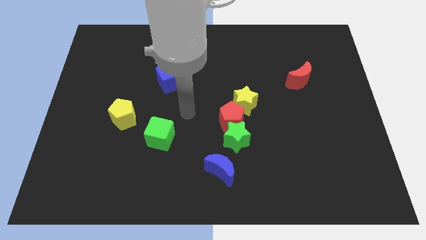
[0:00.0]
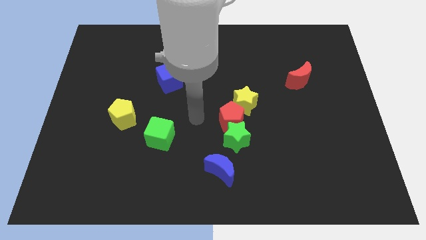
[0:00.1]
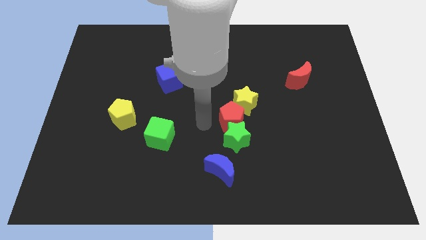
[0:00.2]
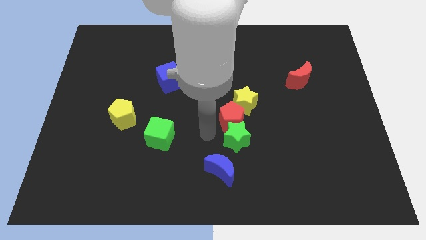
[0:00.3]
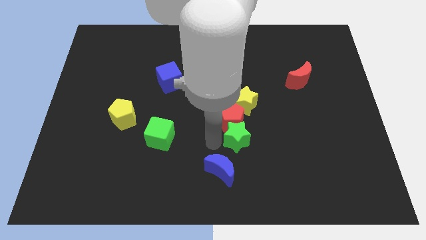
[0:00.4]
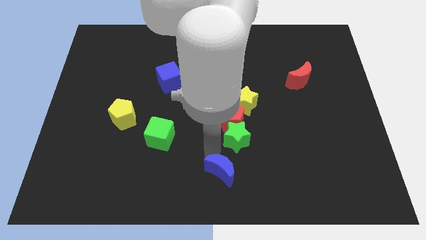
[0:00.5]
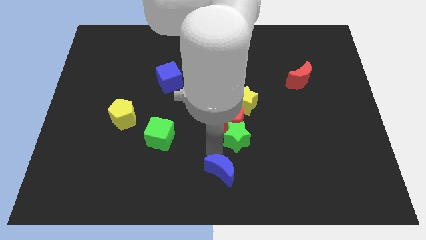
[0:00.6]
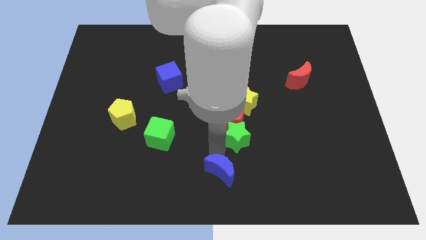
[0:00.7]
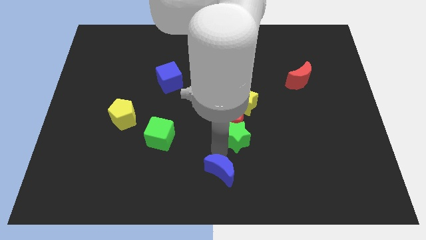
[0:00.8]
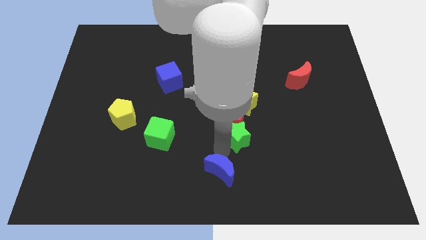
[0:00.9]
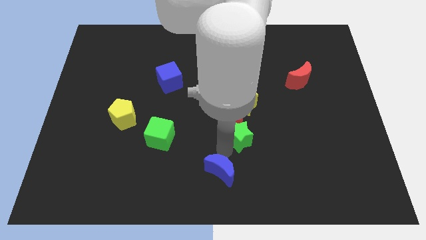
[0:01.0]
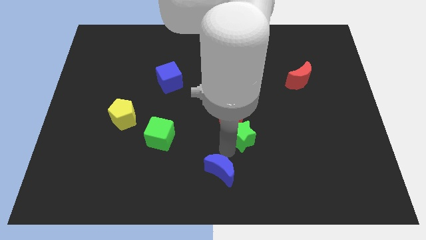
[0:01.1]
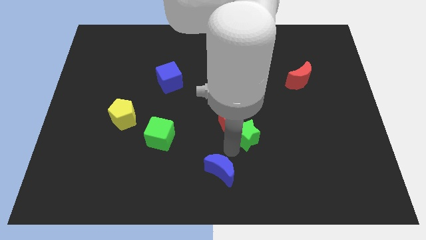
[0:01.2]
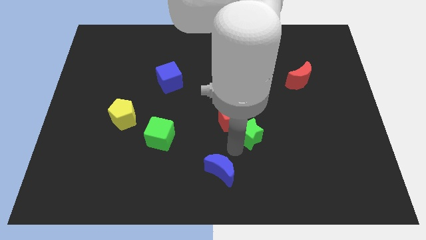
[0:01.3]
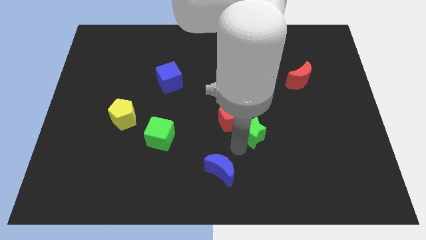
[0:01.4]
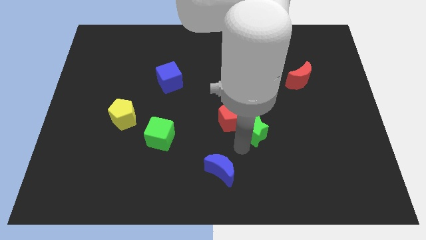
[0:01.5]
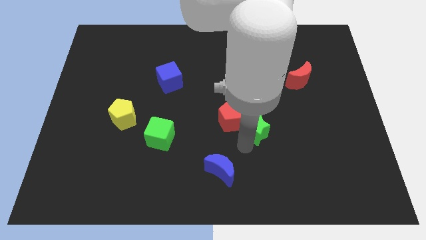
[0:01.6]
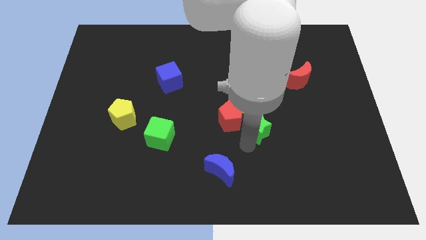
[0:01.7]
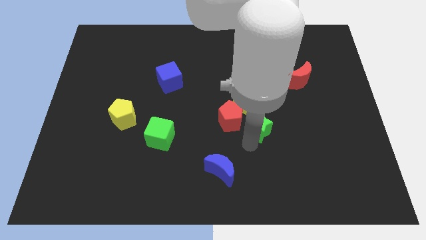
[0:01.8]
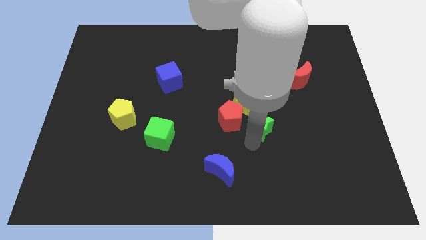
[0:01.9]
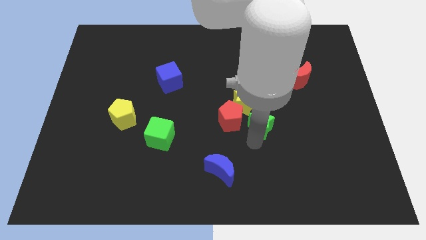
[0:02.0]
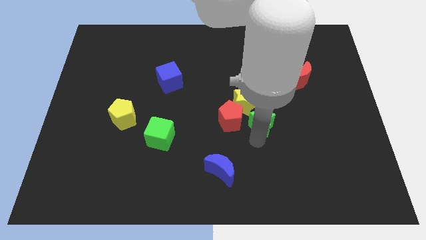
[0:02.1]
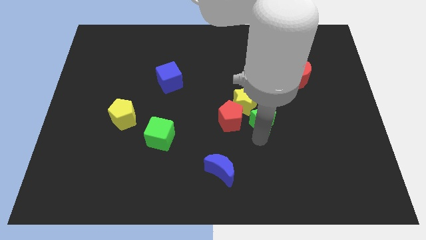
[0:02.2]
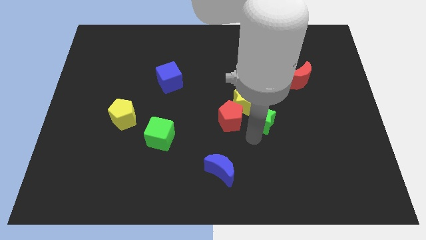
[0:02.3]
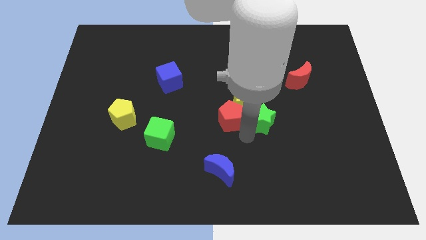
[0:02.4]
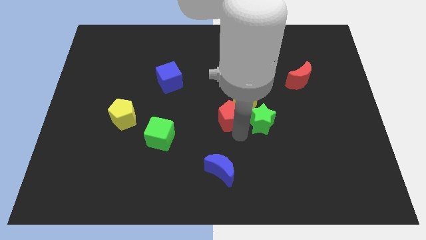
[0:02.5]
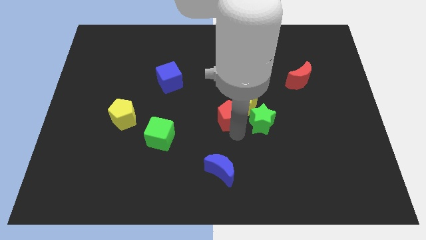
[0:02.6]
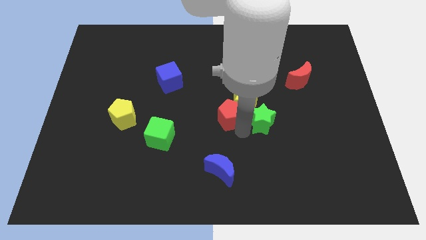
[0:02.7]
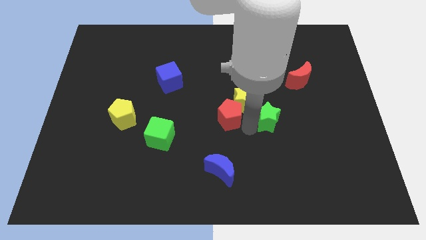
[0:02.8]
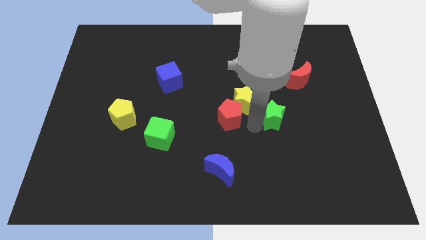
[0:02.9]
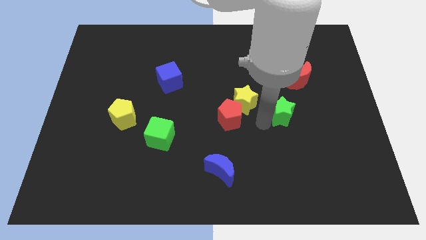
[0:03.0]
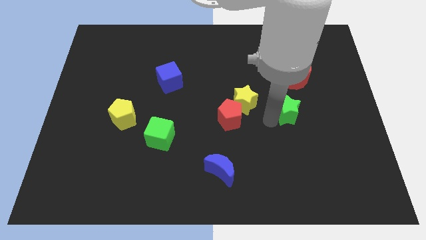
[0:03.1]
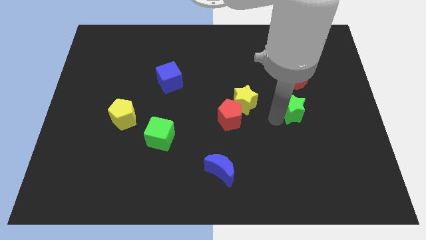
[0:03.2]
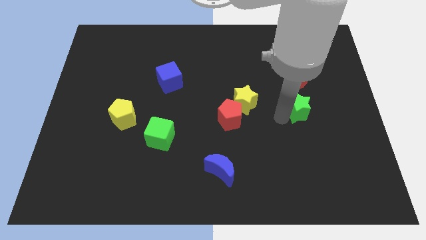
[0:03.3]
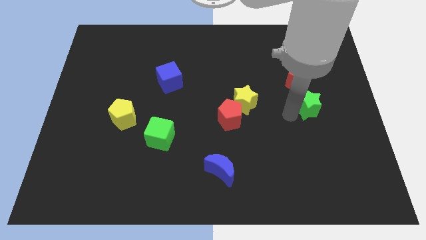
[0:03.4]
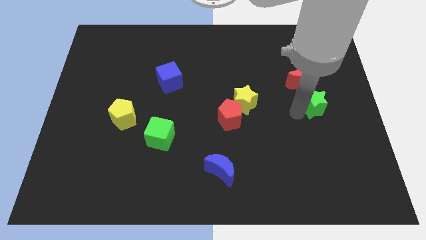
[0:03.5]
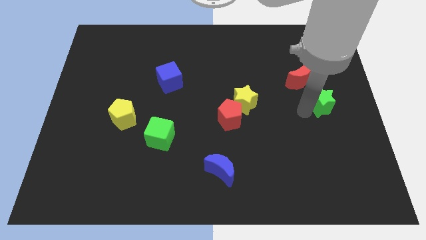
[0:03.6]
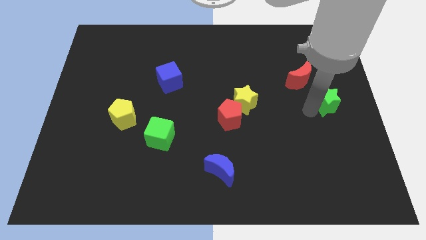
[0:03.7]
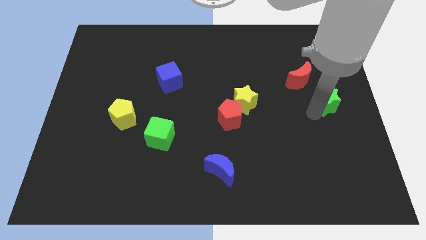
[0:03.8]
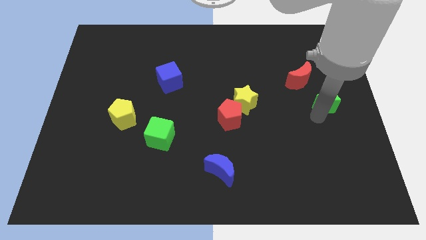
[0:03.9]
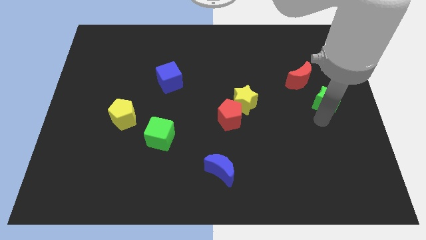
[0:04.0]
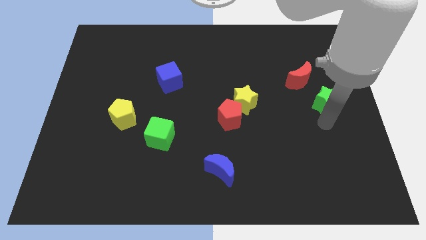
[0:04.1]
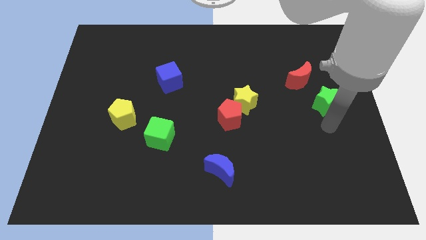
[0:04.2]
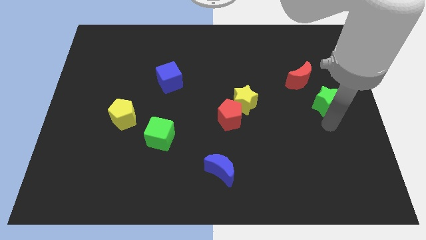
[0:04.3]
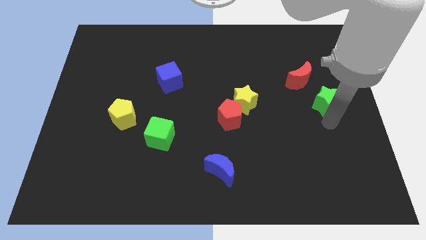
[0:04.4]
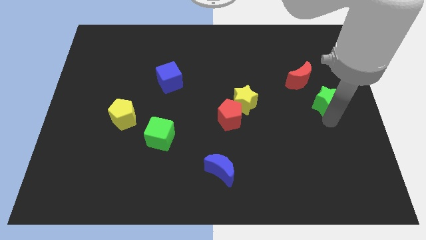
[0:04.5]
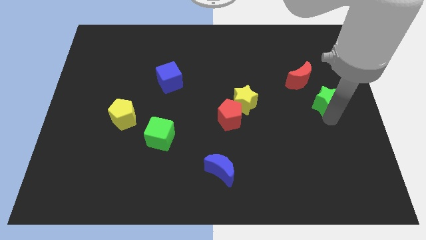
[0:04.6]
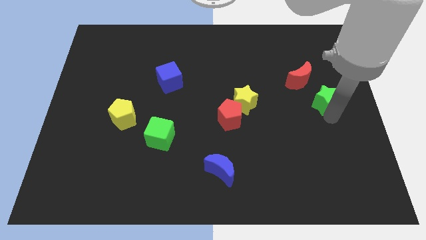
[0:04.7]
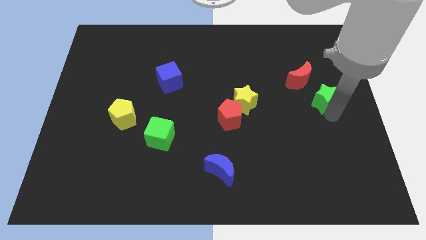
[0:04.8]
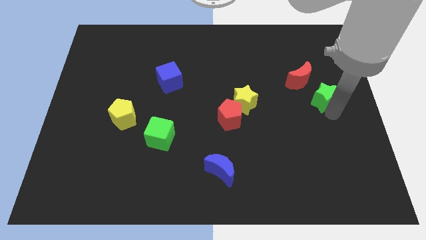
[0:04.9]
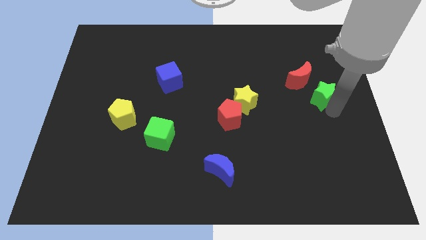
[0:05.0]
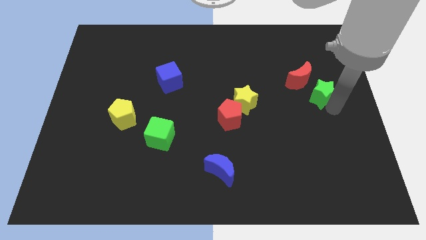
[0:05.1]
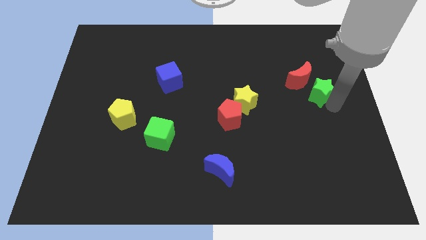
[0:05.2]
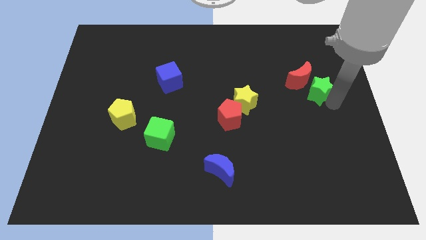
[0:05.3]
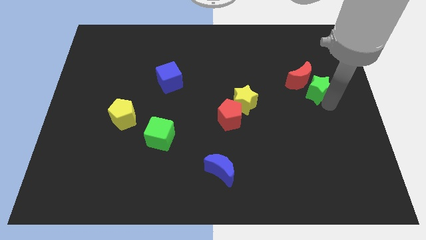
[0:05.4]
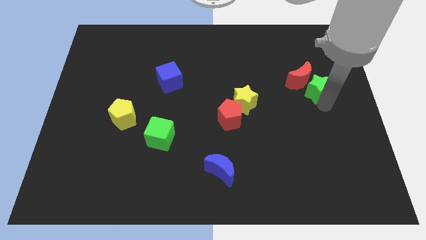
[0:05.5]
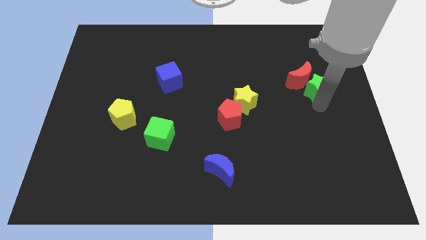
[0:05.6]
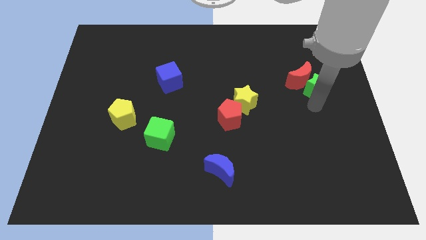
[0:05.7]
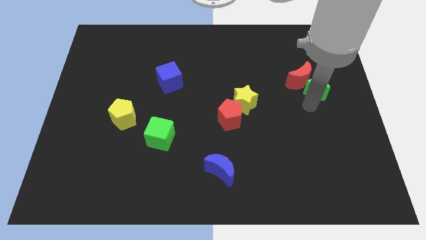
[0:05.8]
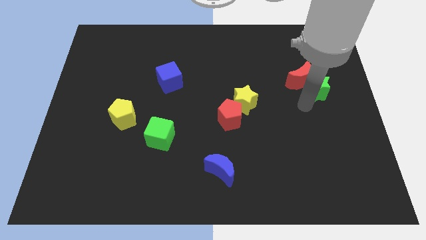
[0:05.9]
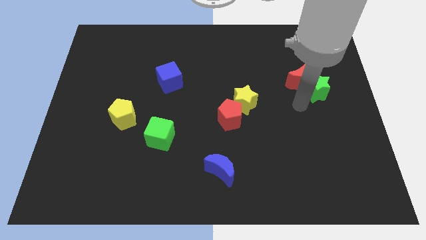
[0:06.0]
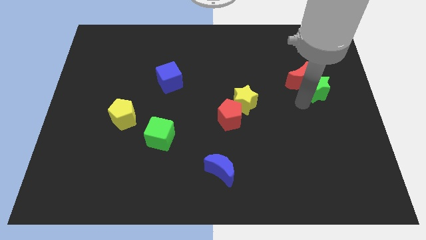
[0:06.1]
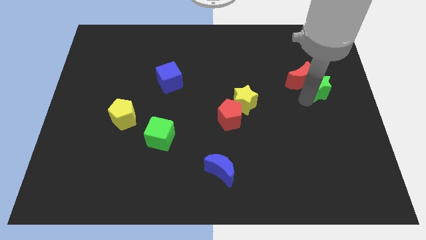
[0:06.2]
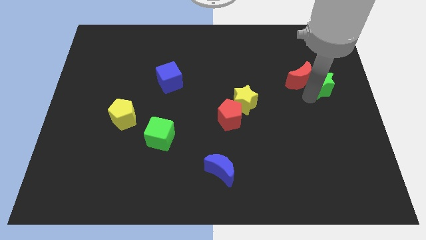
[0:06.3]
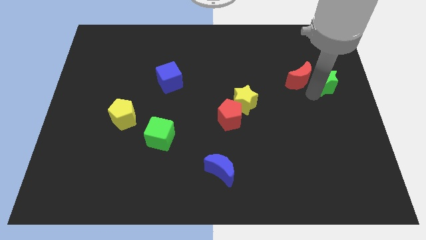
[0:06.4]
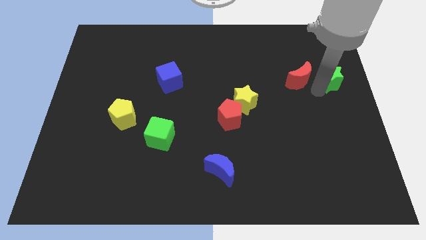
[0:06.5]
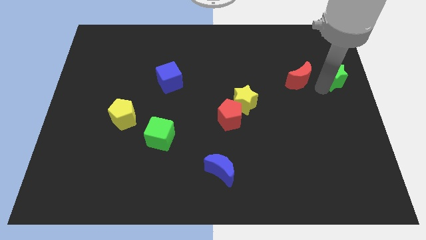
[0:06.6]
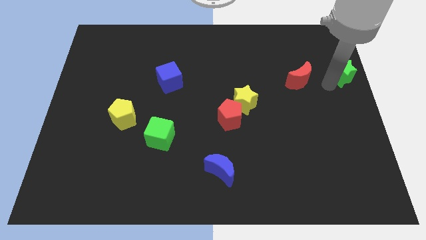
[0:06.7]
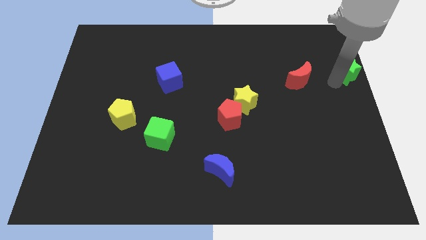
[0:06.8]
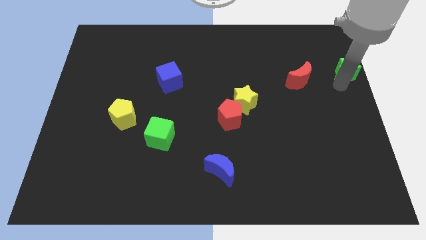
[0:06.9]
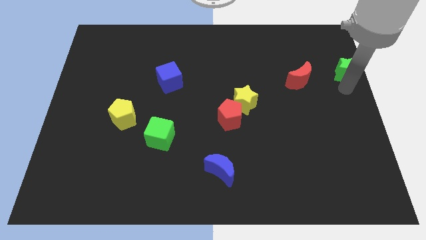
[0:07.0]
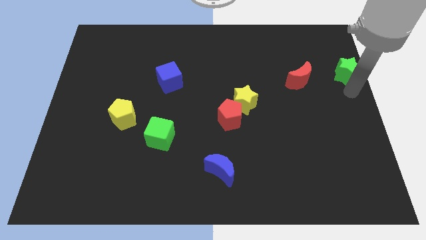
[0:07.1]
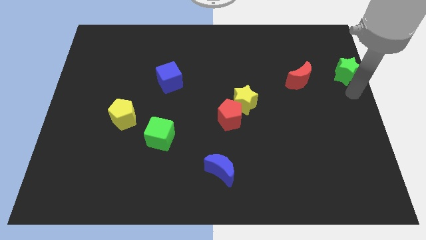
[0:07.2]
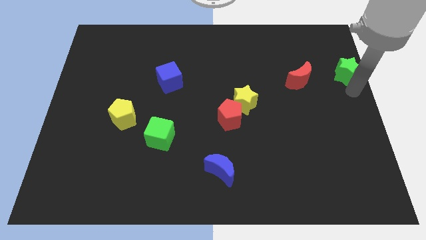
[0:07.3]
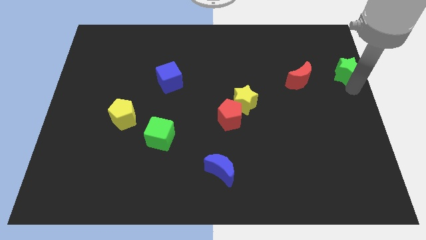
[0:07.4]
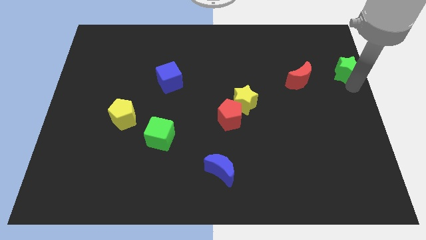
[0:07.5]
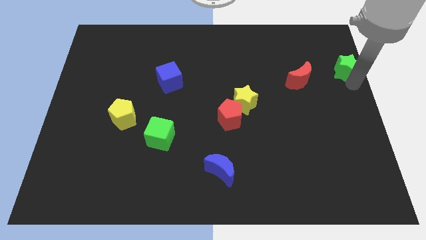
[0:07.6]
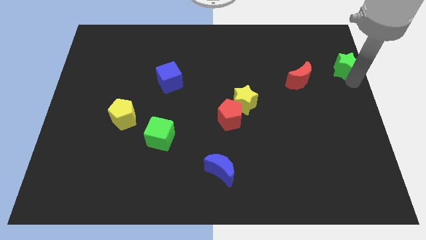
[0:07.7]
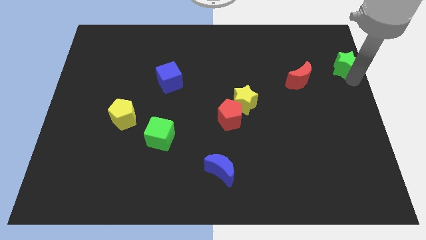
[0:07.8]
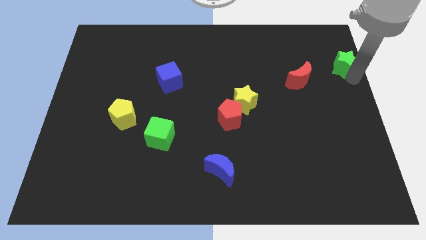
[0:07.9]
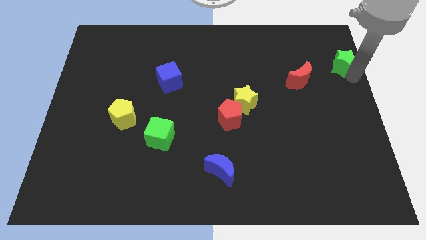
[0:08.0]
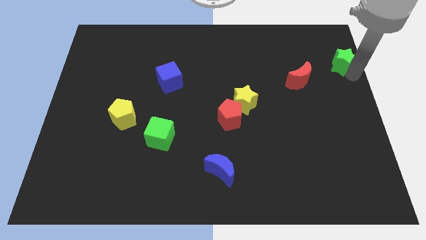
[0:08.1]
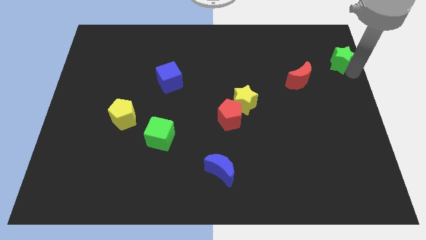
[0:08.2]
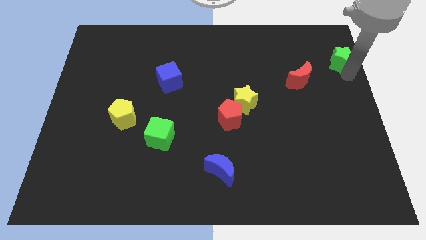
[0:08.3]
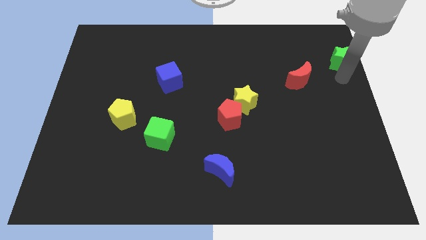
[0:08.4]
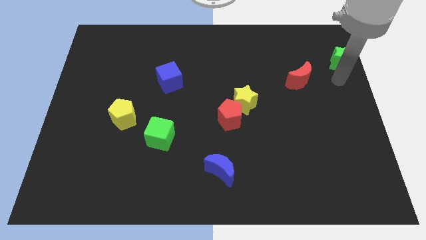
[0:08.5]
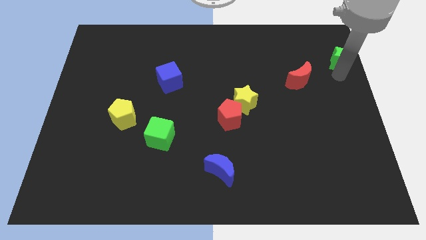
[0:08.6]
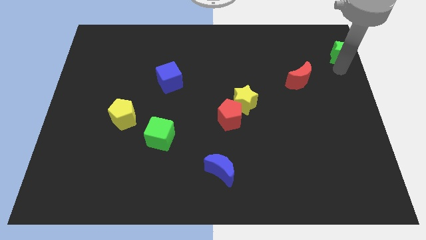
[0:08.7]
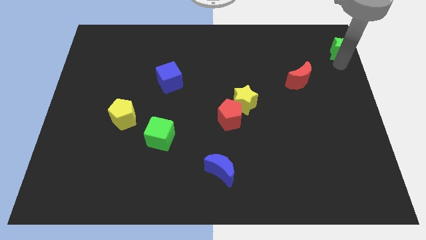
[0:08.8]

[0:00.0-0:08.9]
move the green star to the top right corner
